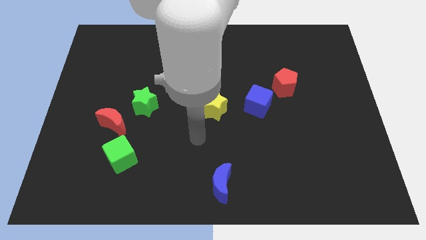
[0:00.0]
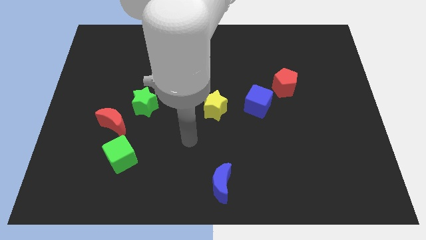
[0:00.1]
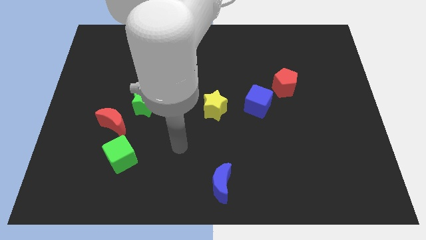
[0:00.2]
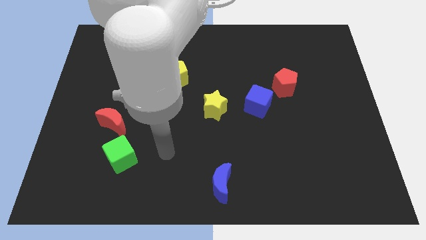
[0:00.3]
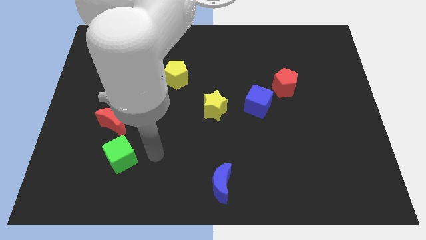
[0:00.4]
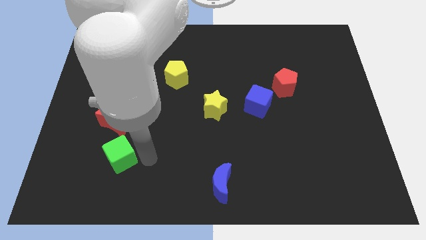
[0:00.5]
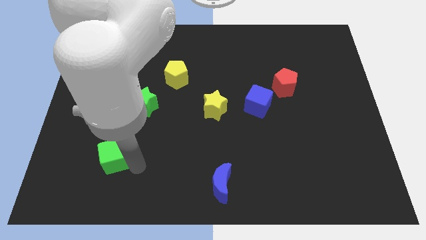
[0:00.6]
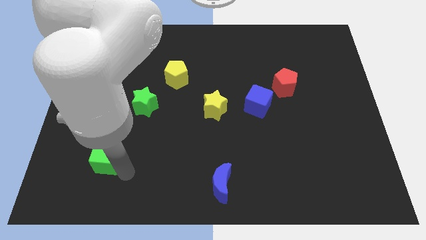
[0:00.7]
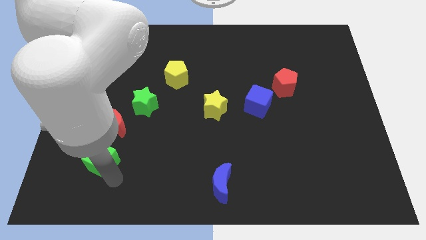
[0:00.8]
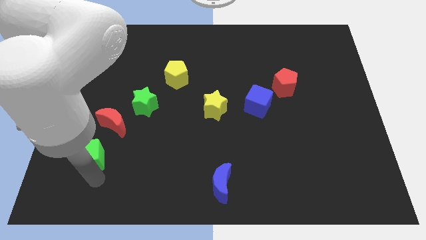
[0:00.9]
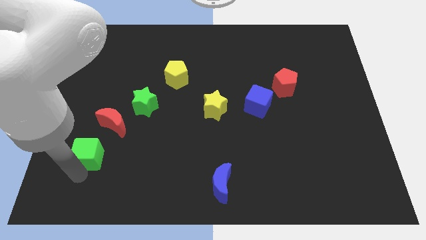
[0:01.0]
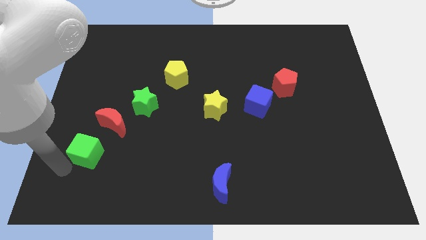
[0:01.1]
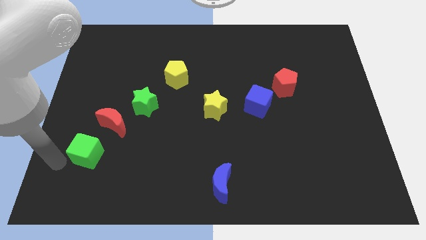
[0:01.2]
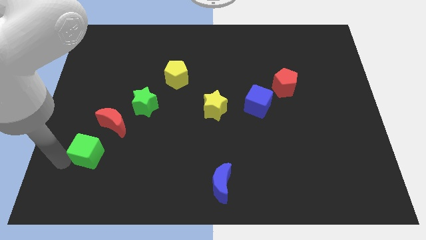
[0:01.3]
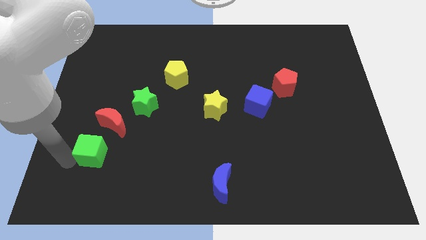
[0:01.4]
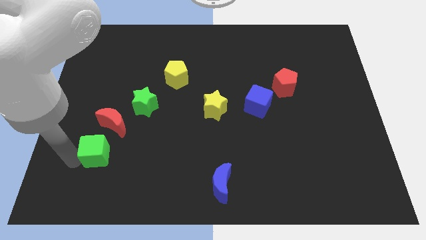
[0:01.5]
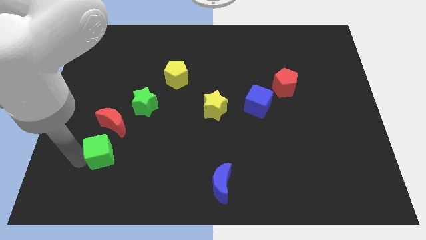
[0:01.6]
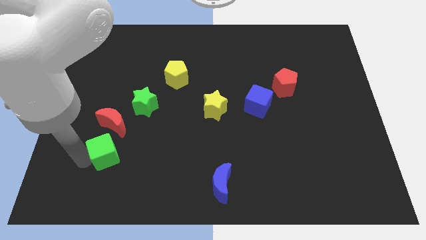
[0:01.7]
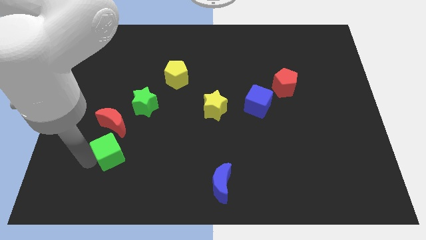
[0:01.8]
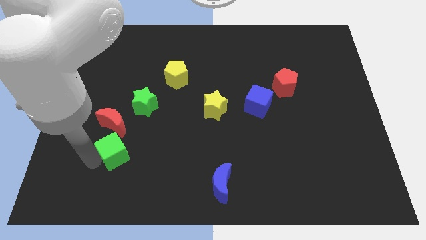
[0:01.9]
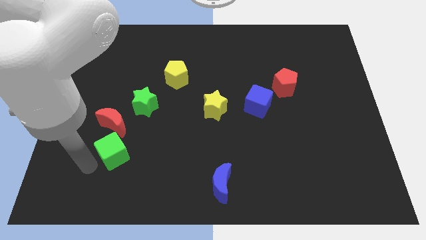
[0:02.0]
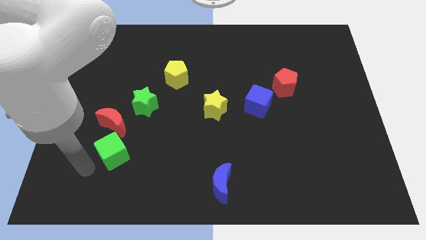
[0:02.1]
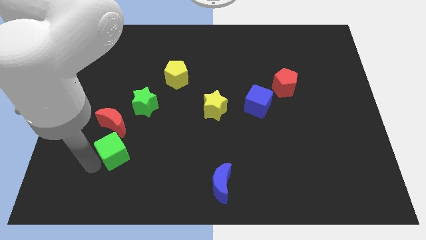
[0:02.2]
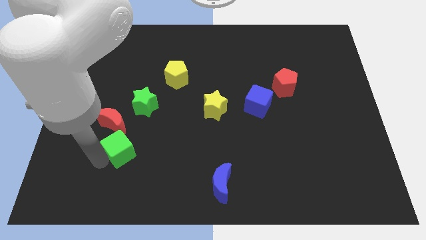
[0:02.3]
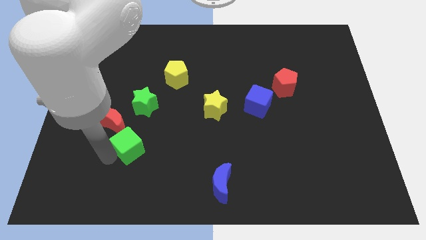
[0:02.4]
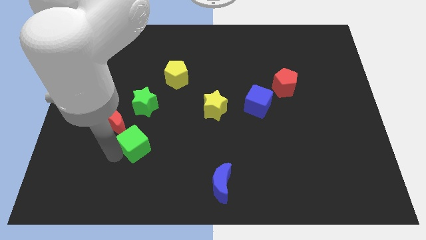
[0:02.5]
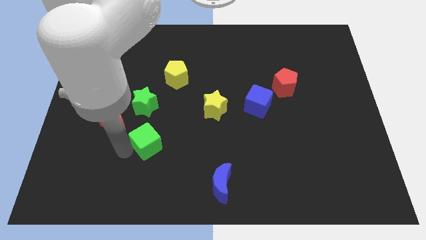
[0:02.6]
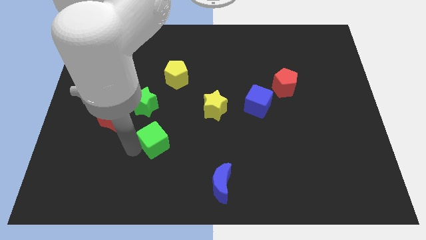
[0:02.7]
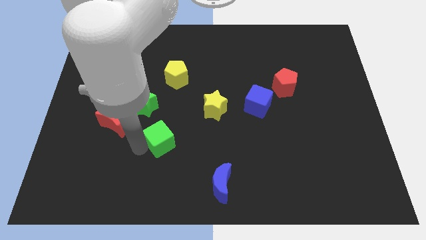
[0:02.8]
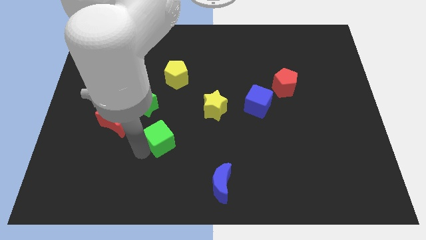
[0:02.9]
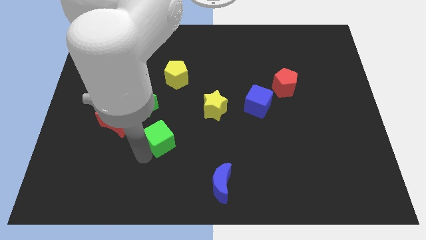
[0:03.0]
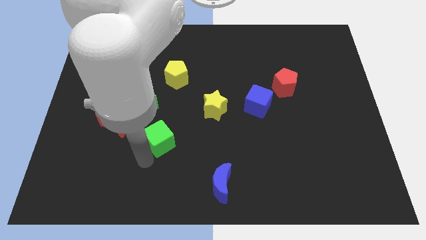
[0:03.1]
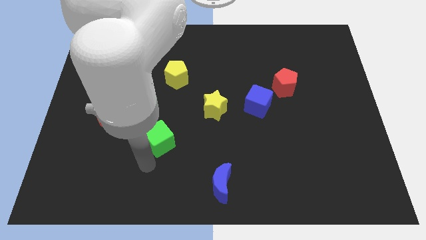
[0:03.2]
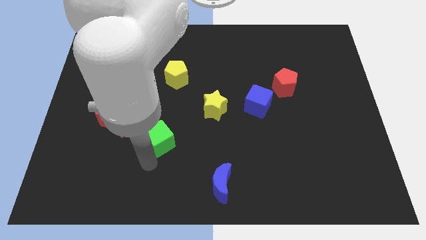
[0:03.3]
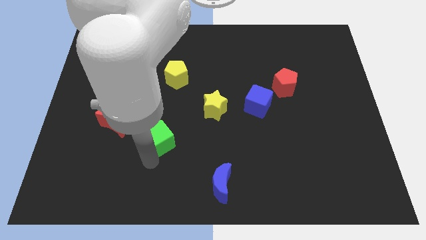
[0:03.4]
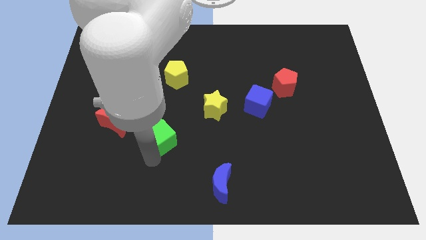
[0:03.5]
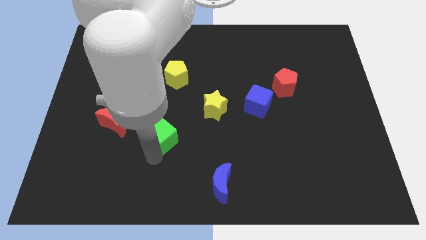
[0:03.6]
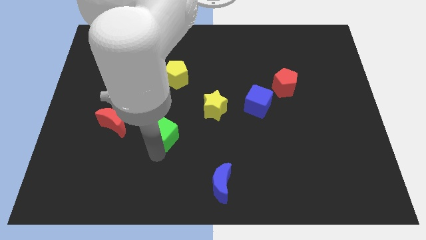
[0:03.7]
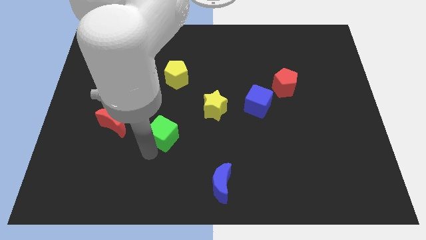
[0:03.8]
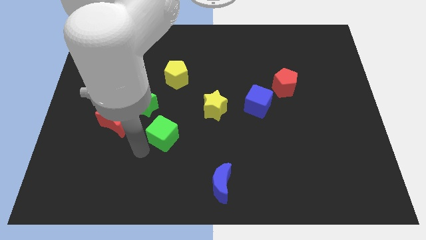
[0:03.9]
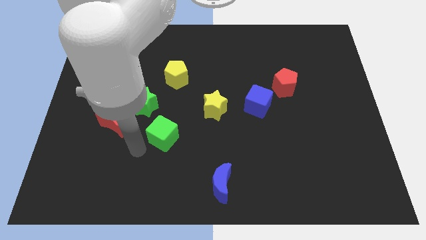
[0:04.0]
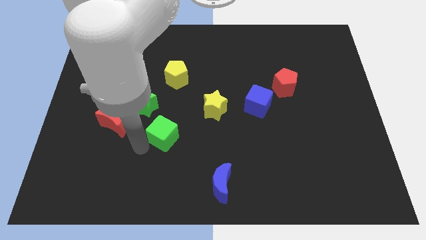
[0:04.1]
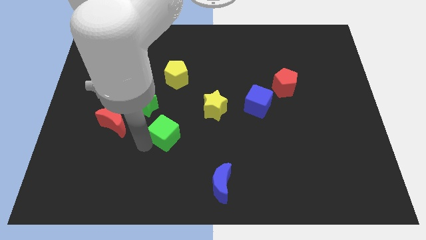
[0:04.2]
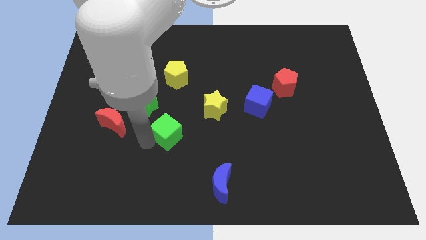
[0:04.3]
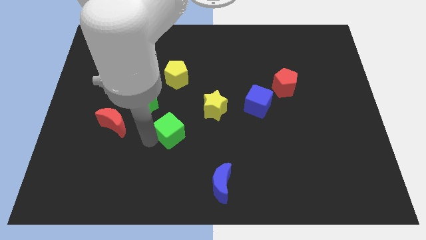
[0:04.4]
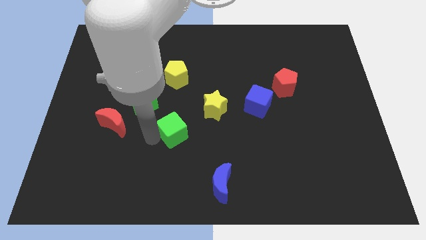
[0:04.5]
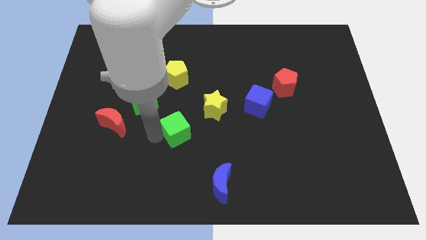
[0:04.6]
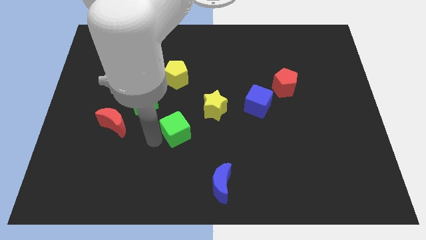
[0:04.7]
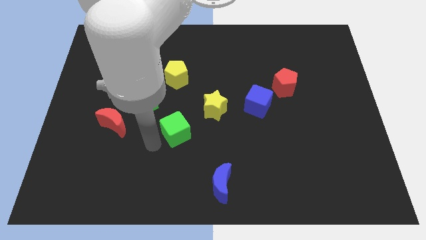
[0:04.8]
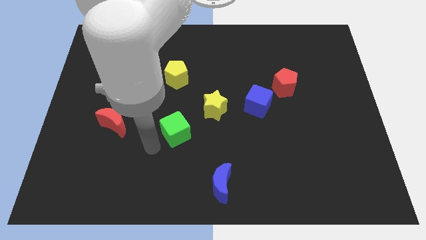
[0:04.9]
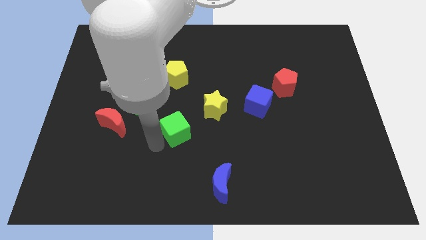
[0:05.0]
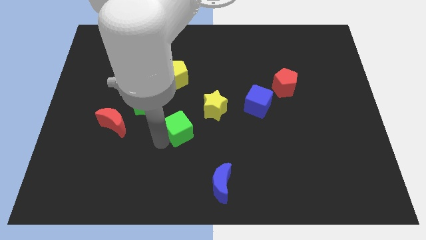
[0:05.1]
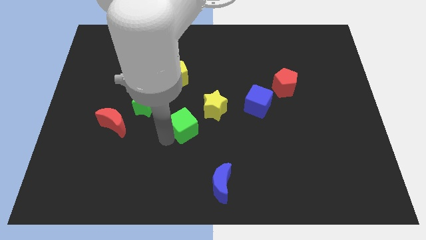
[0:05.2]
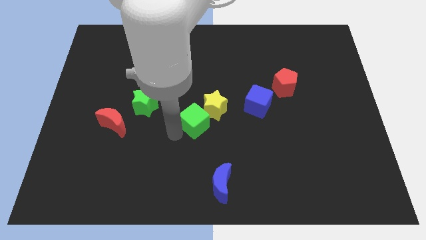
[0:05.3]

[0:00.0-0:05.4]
put the green cube close to the yellow star

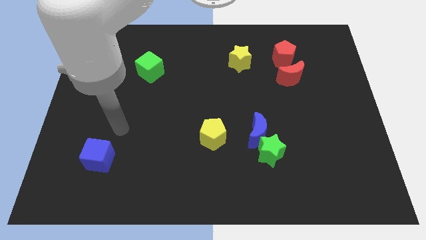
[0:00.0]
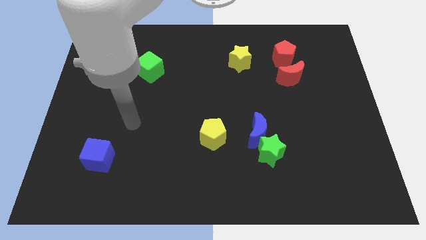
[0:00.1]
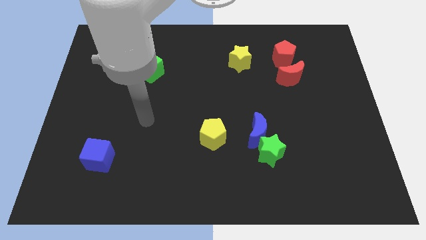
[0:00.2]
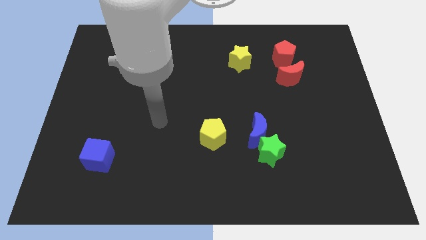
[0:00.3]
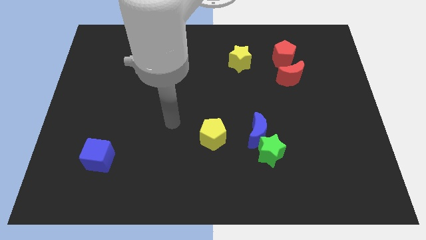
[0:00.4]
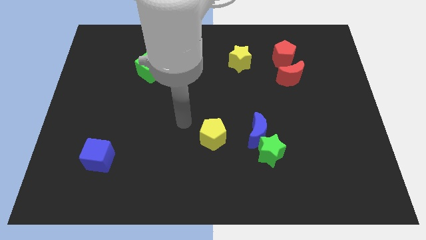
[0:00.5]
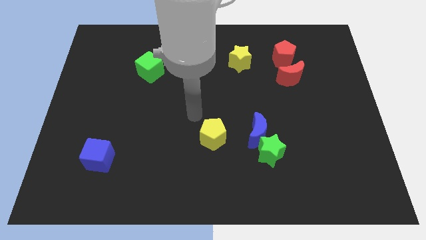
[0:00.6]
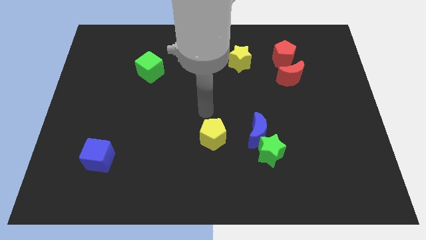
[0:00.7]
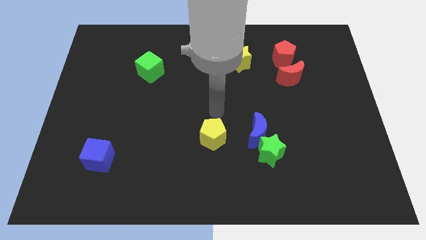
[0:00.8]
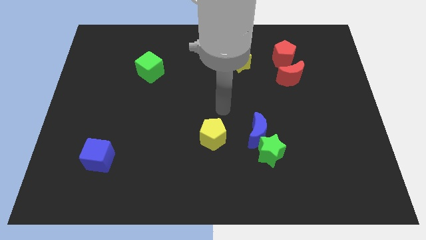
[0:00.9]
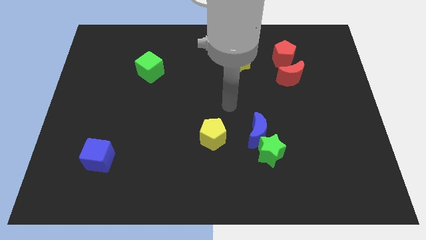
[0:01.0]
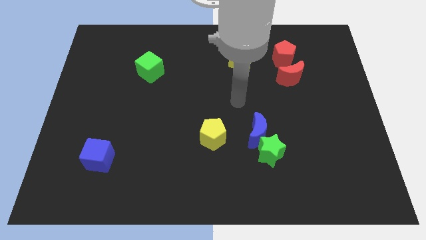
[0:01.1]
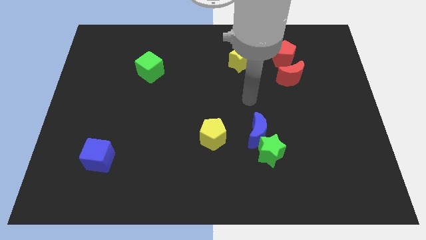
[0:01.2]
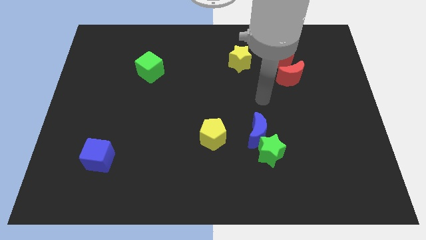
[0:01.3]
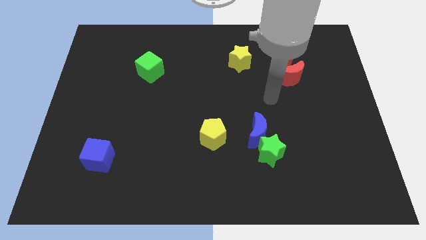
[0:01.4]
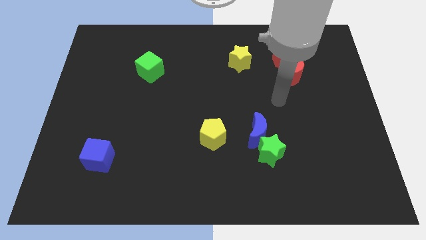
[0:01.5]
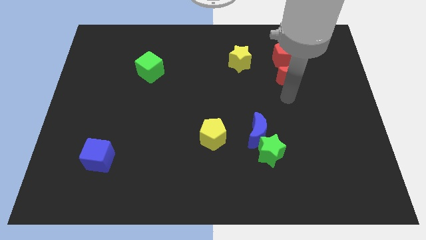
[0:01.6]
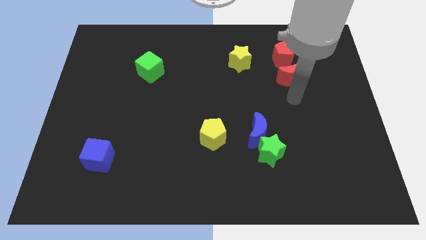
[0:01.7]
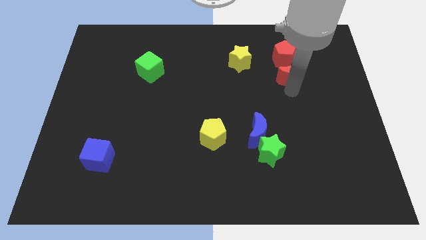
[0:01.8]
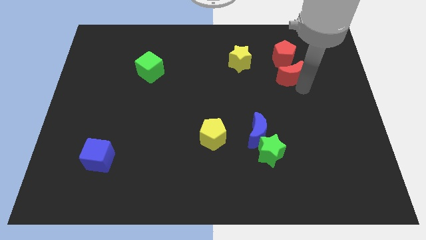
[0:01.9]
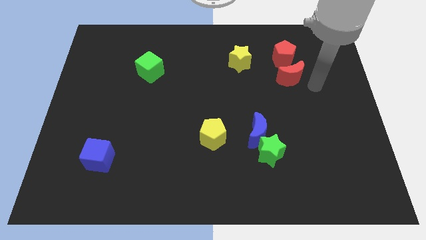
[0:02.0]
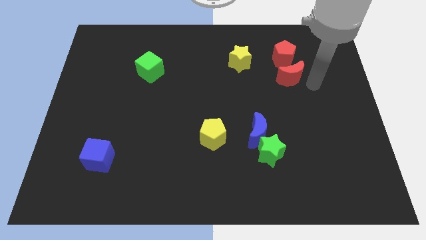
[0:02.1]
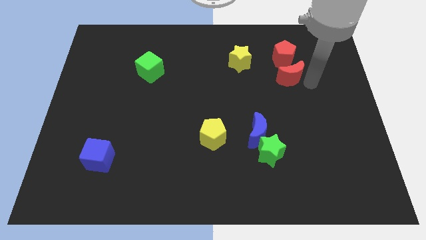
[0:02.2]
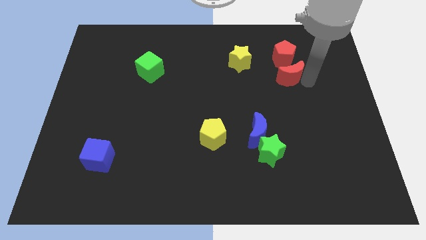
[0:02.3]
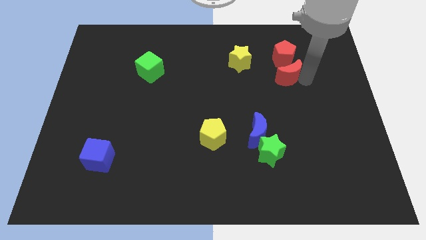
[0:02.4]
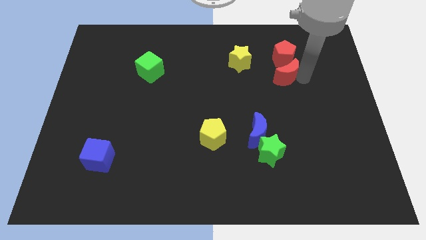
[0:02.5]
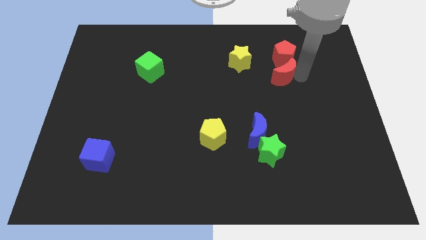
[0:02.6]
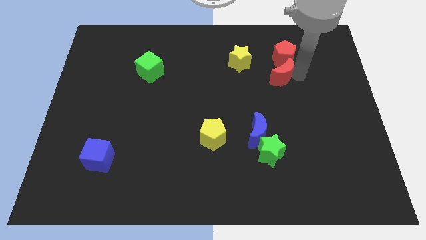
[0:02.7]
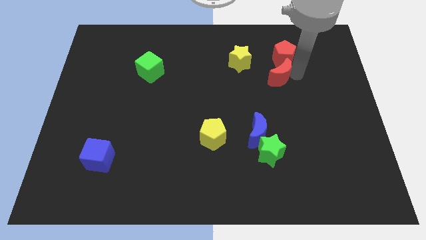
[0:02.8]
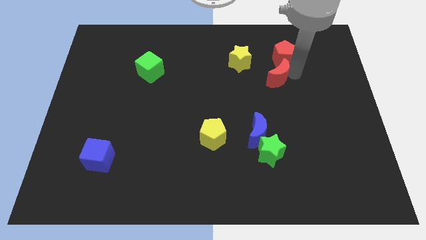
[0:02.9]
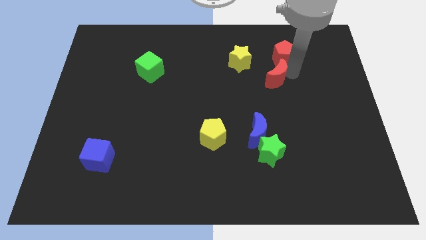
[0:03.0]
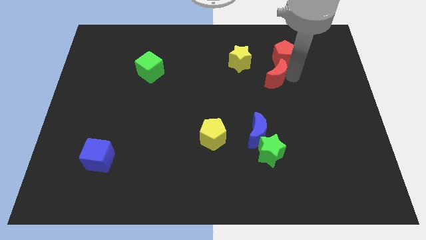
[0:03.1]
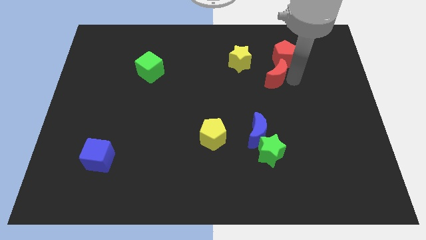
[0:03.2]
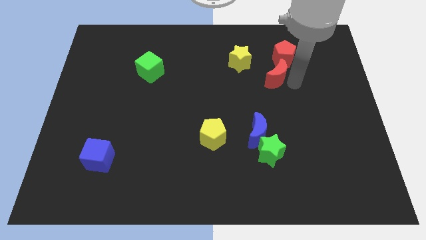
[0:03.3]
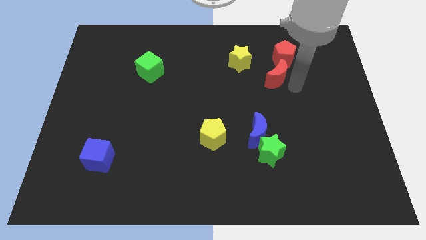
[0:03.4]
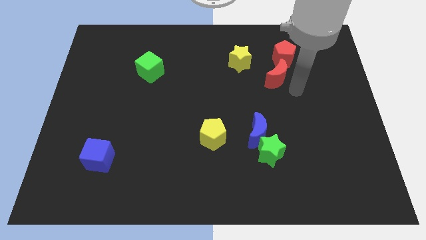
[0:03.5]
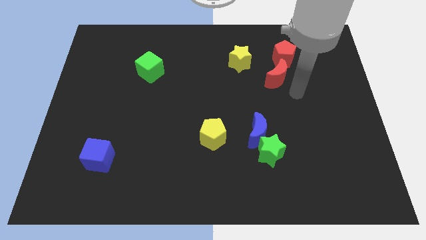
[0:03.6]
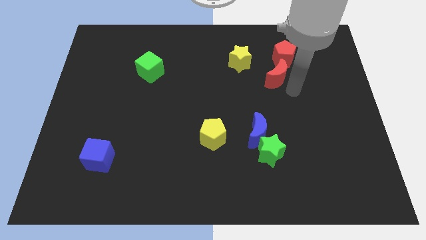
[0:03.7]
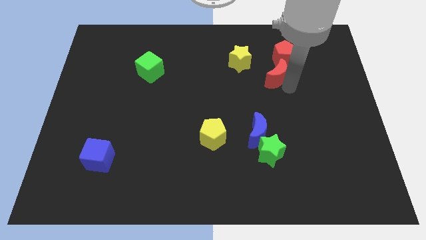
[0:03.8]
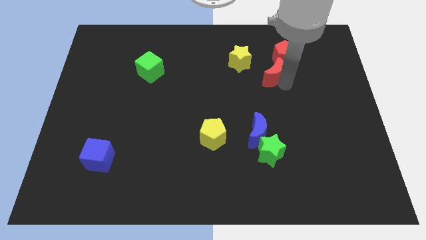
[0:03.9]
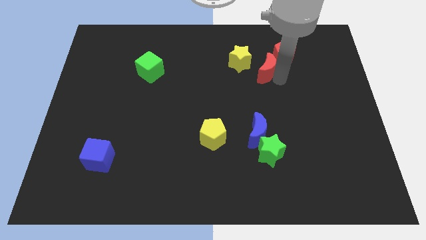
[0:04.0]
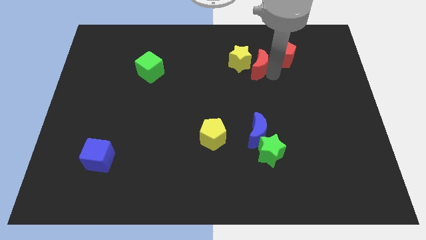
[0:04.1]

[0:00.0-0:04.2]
move the red moon close to the yellow star
